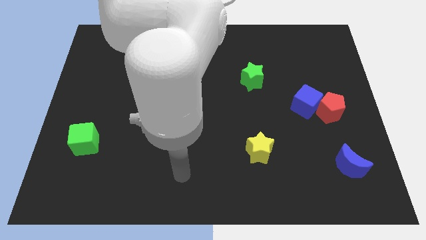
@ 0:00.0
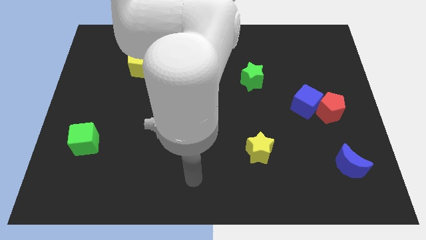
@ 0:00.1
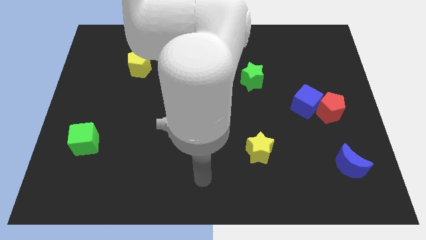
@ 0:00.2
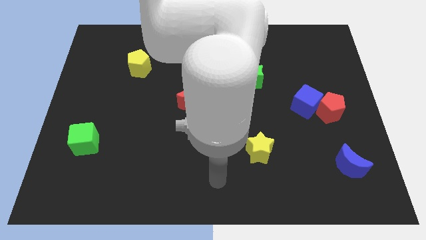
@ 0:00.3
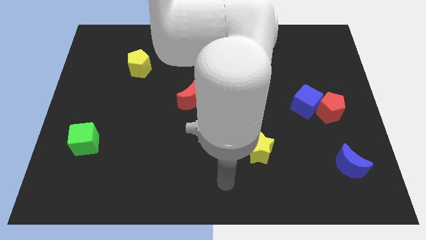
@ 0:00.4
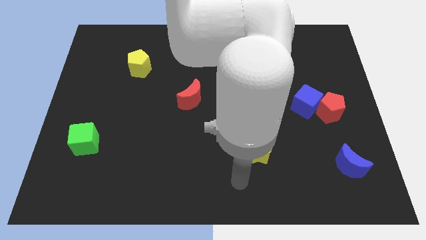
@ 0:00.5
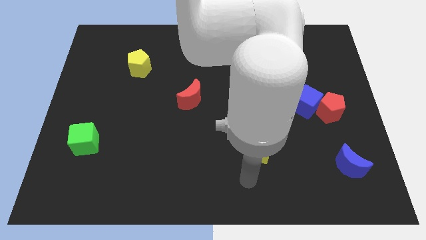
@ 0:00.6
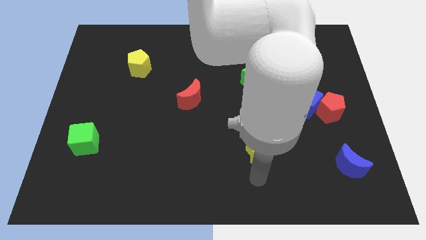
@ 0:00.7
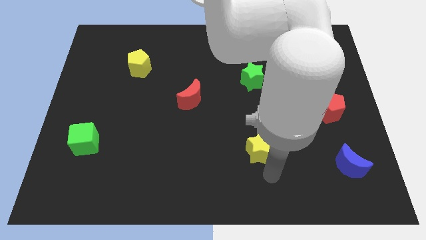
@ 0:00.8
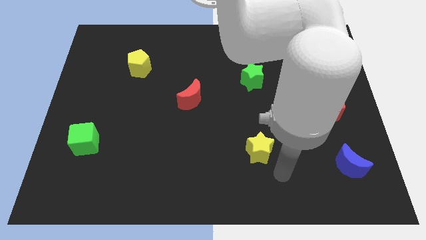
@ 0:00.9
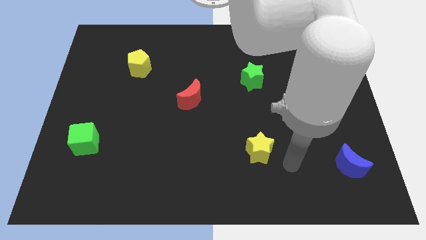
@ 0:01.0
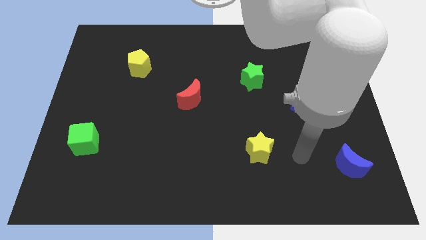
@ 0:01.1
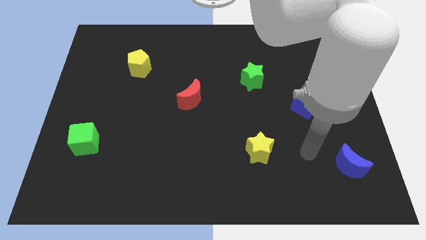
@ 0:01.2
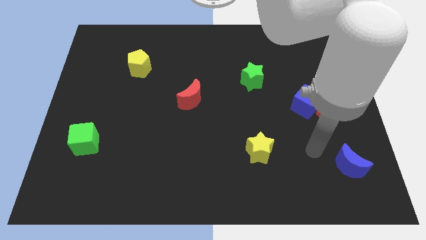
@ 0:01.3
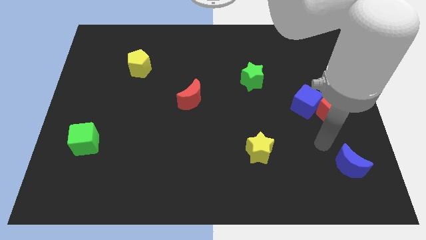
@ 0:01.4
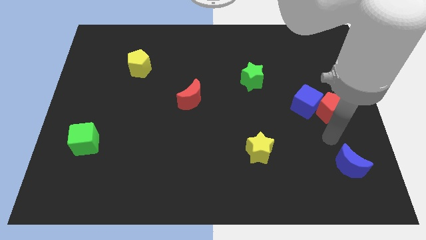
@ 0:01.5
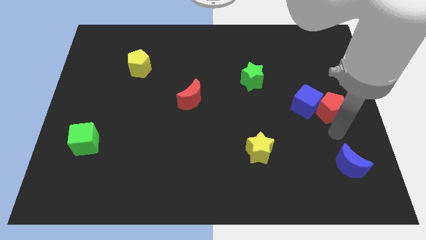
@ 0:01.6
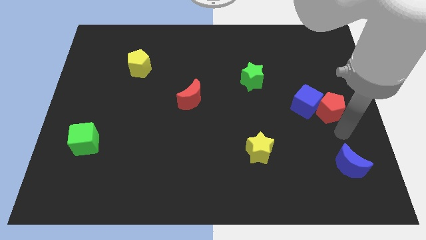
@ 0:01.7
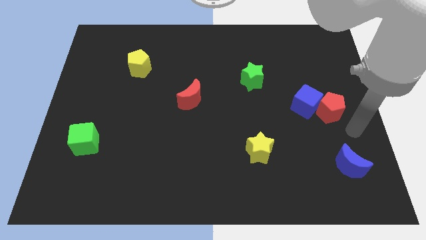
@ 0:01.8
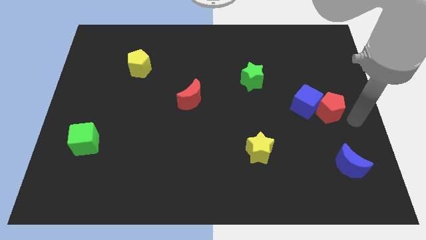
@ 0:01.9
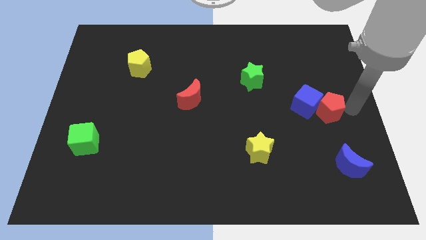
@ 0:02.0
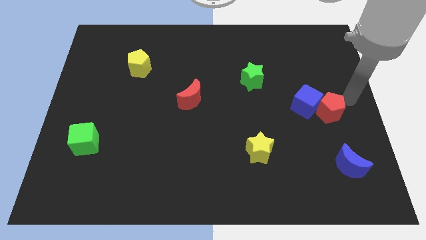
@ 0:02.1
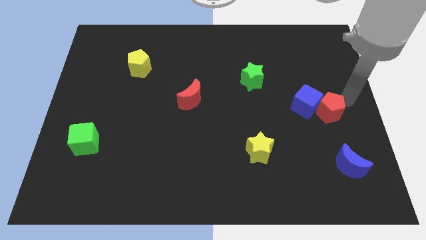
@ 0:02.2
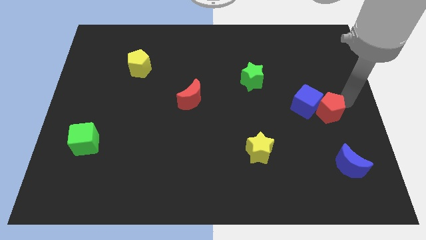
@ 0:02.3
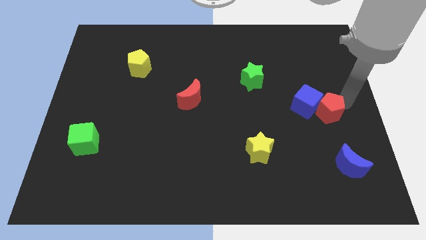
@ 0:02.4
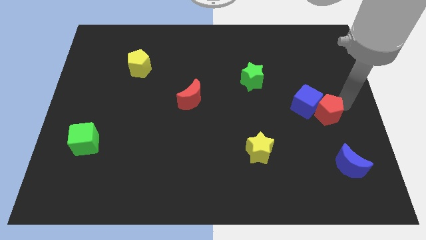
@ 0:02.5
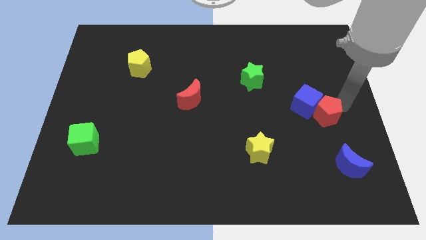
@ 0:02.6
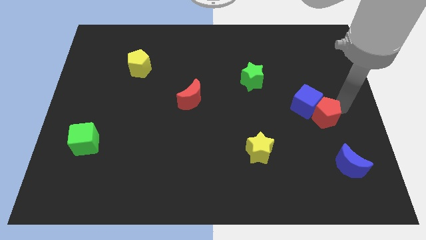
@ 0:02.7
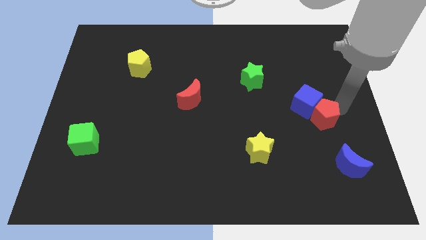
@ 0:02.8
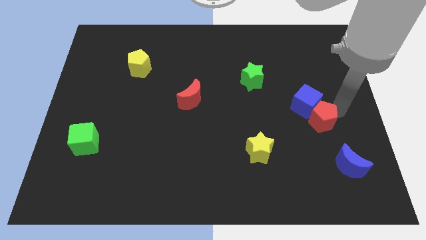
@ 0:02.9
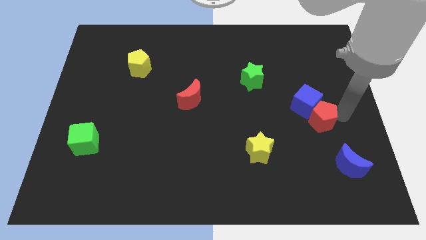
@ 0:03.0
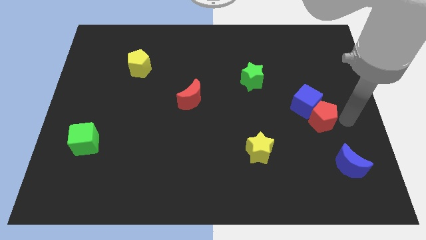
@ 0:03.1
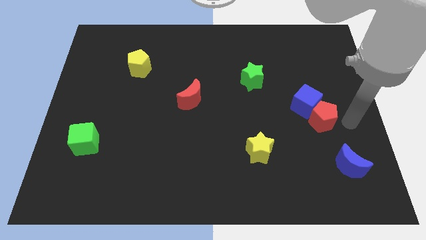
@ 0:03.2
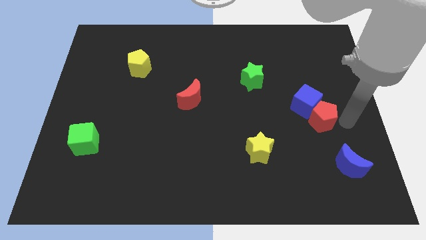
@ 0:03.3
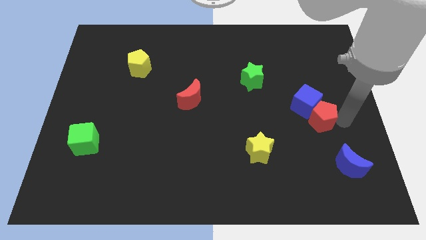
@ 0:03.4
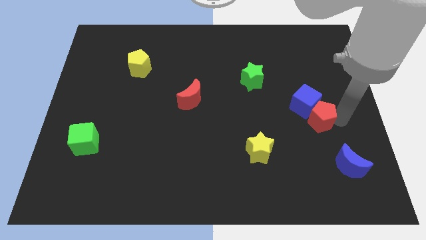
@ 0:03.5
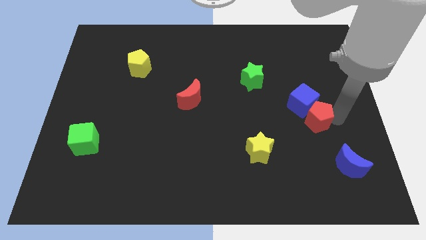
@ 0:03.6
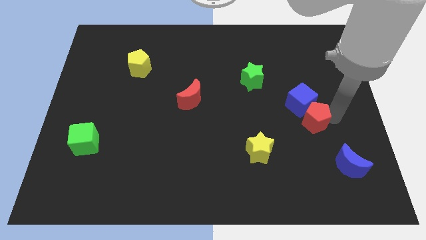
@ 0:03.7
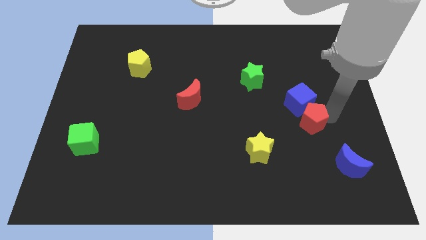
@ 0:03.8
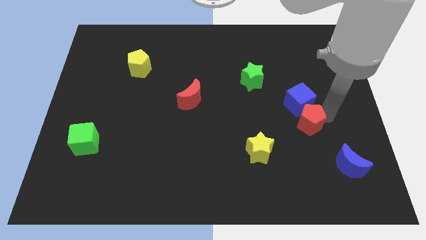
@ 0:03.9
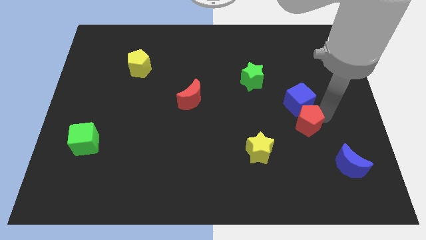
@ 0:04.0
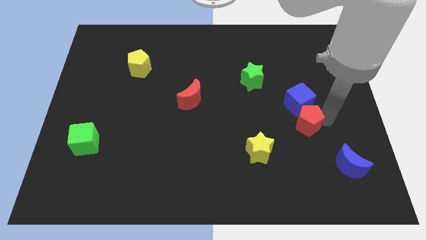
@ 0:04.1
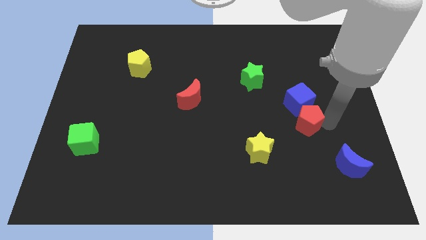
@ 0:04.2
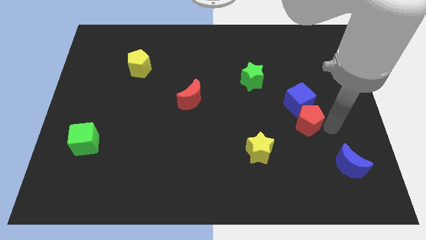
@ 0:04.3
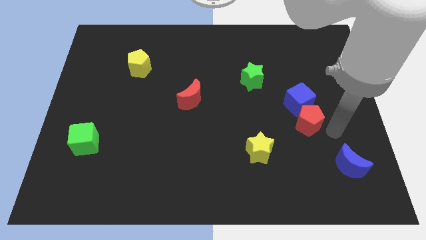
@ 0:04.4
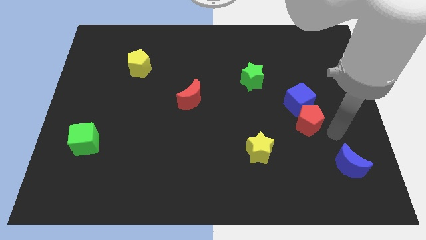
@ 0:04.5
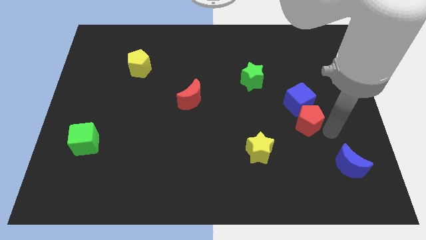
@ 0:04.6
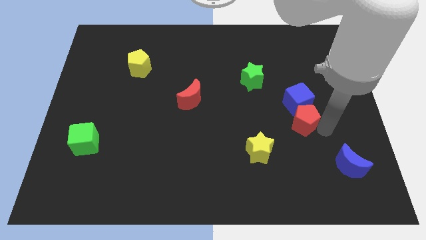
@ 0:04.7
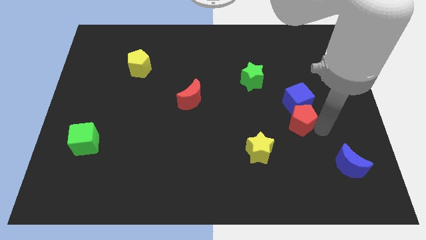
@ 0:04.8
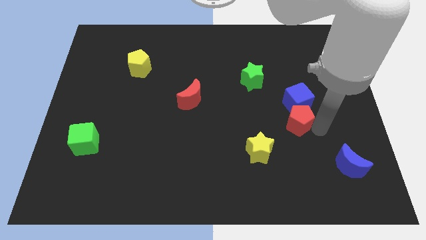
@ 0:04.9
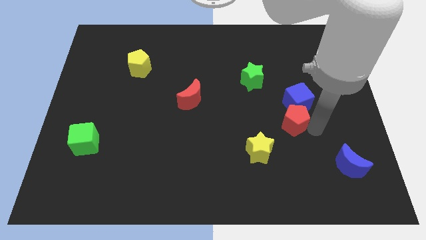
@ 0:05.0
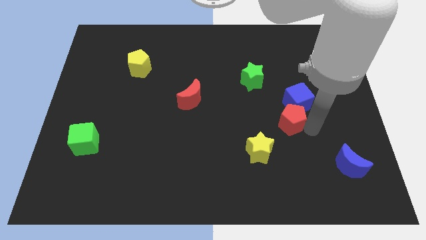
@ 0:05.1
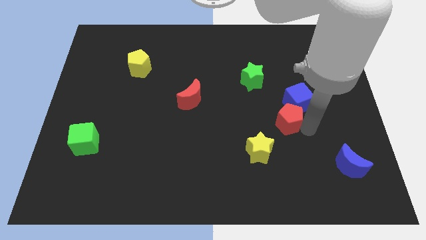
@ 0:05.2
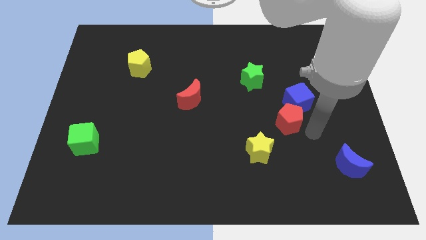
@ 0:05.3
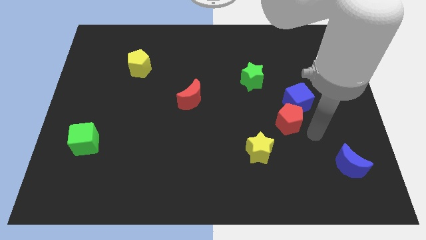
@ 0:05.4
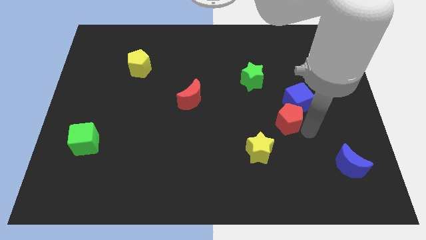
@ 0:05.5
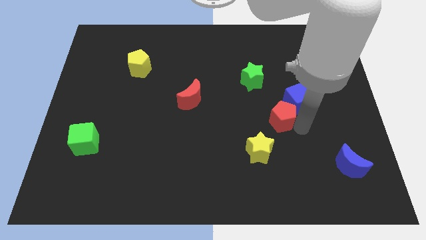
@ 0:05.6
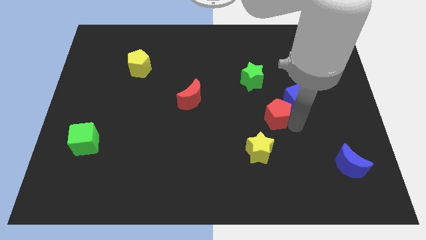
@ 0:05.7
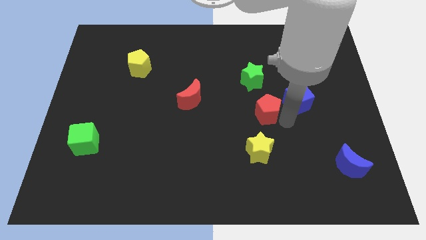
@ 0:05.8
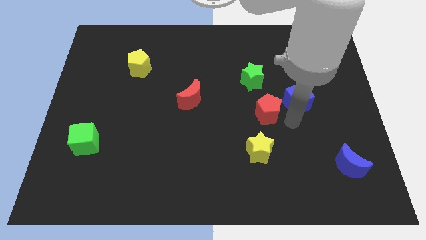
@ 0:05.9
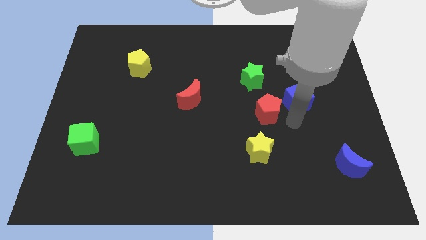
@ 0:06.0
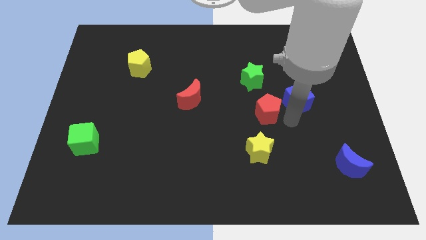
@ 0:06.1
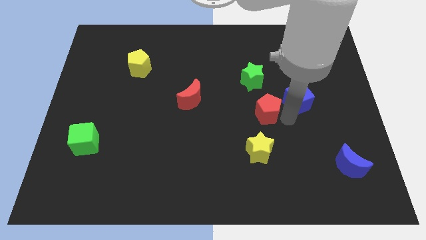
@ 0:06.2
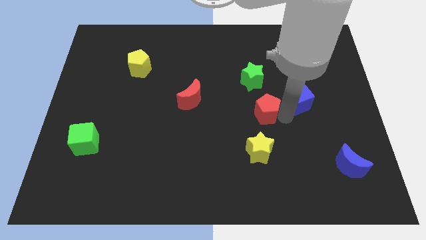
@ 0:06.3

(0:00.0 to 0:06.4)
push the red pentagon to the middle of the board
